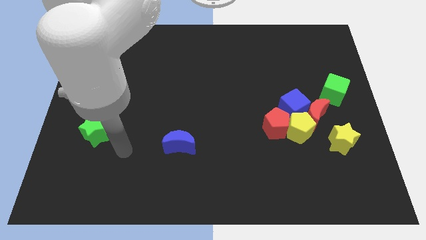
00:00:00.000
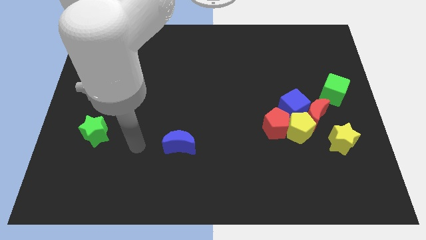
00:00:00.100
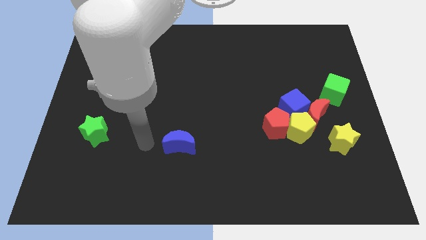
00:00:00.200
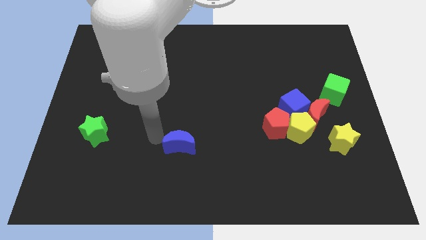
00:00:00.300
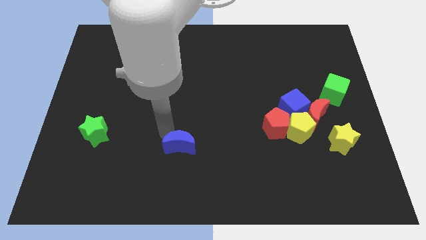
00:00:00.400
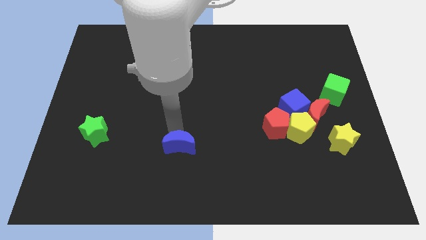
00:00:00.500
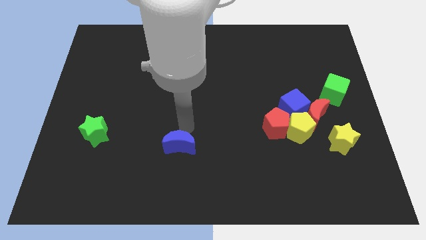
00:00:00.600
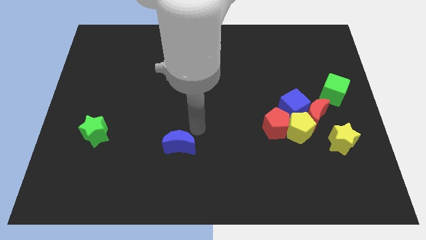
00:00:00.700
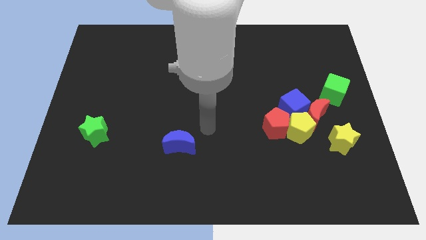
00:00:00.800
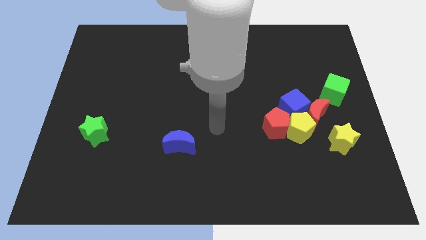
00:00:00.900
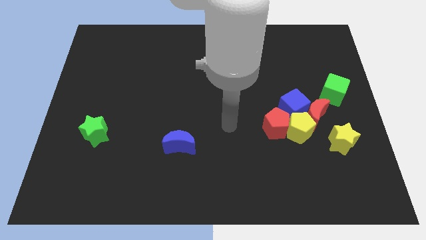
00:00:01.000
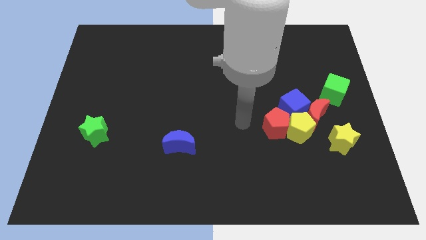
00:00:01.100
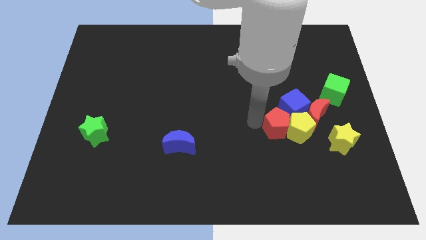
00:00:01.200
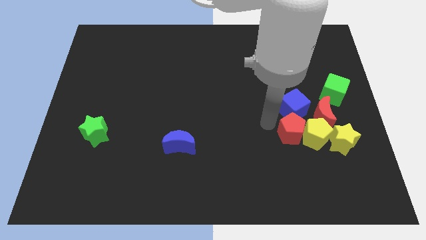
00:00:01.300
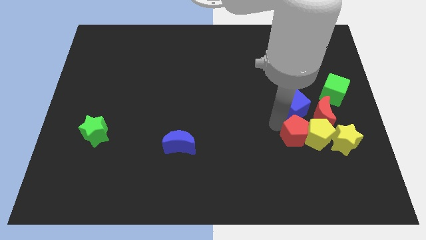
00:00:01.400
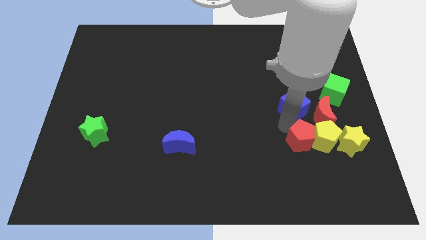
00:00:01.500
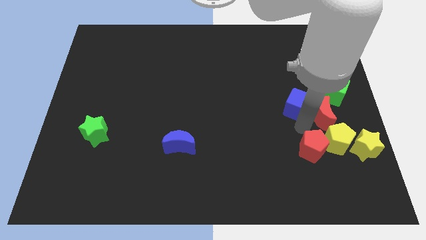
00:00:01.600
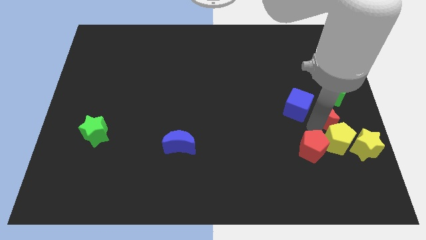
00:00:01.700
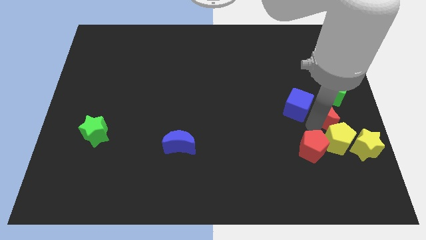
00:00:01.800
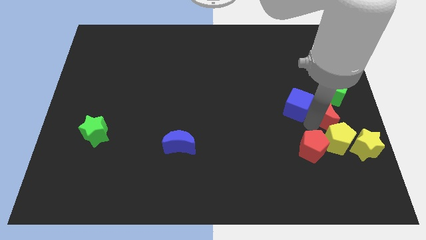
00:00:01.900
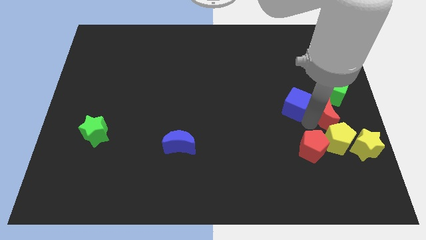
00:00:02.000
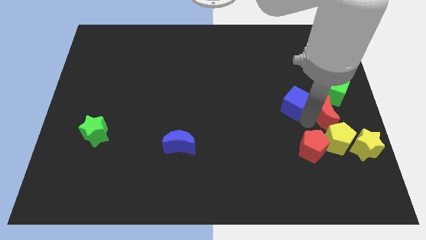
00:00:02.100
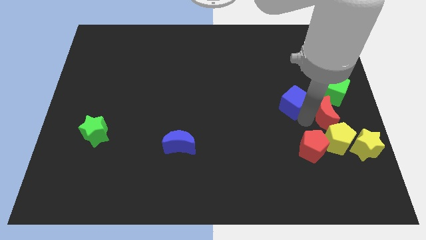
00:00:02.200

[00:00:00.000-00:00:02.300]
separate the blue cube from the group

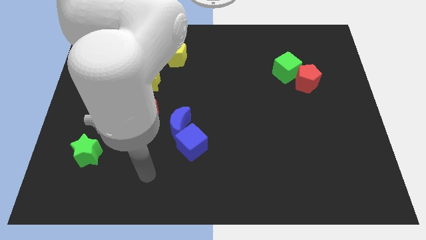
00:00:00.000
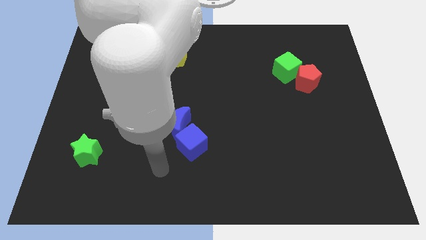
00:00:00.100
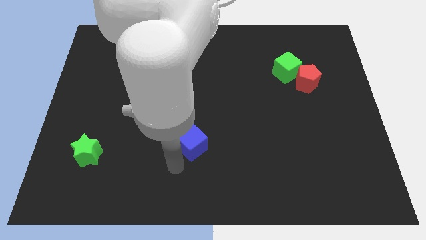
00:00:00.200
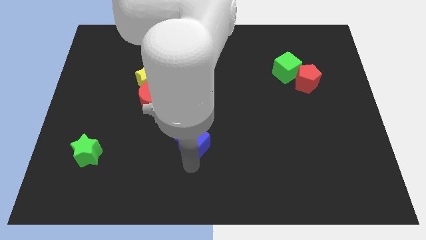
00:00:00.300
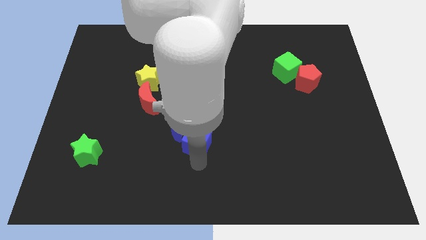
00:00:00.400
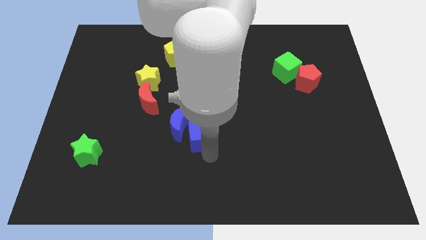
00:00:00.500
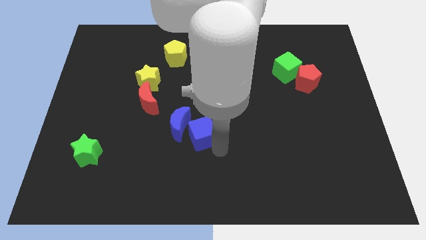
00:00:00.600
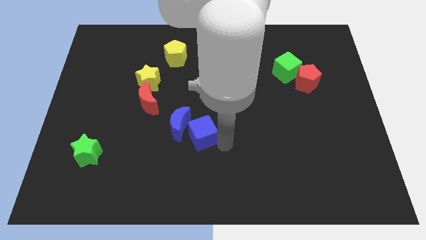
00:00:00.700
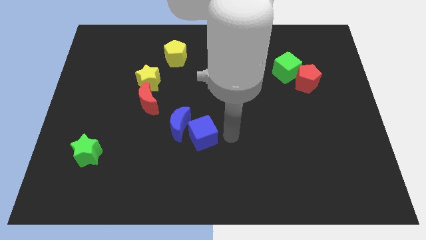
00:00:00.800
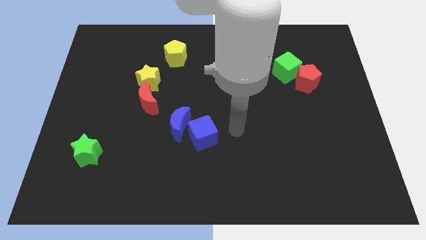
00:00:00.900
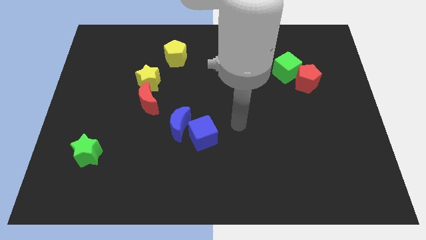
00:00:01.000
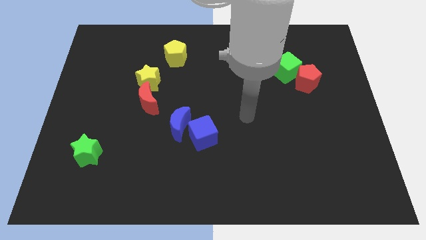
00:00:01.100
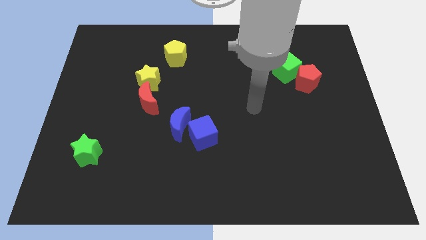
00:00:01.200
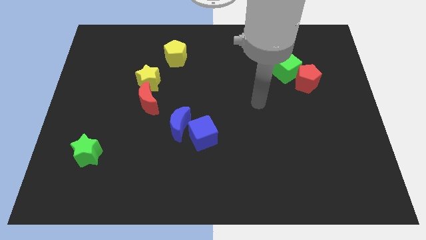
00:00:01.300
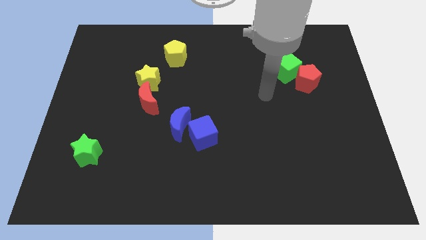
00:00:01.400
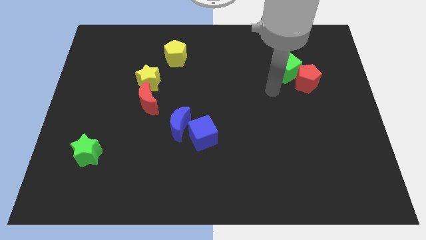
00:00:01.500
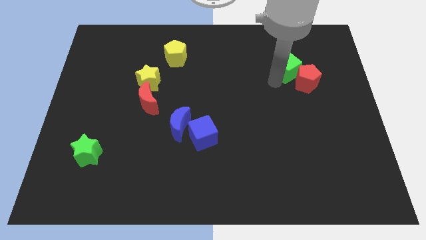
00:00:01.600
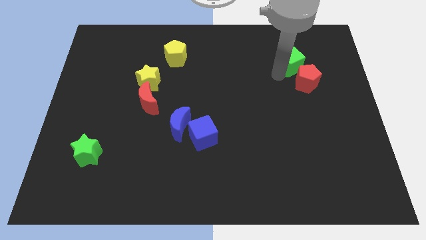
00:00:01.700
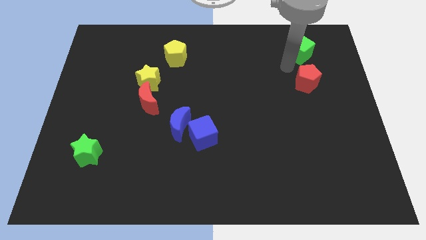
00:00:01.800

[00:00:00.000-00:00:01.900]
separate the red pentagon from the green cube

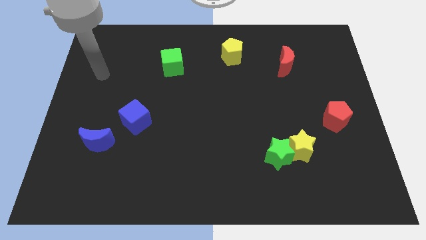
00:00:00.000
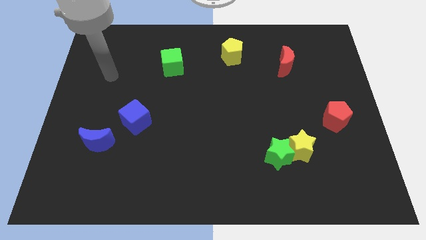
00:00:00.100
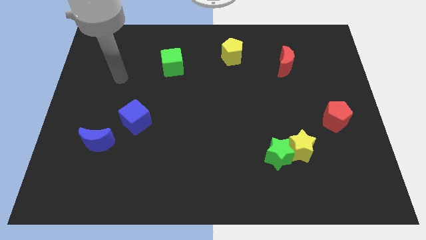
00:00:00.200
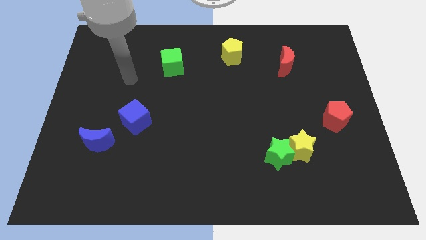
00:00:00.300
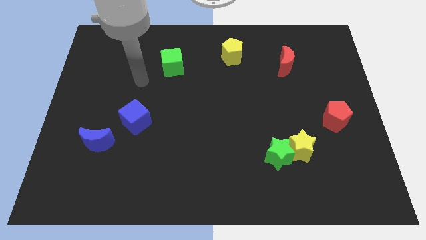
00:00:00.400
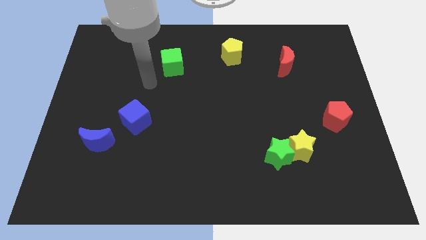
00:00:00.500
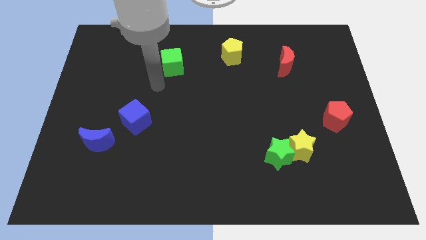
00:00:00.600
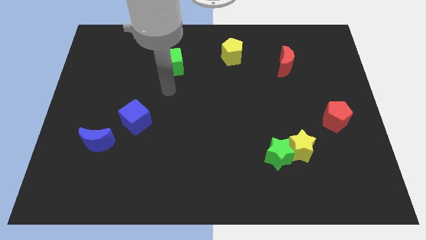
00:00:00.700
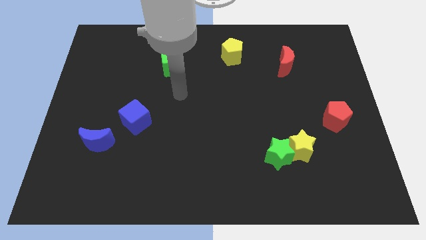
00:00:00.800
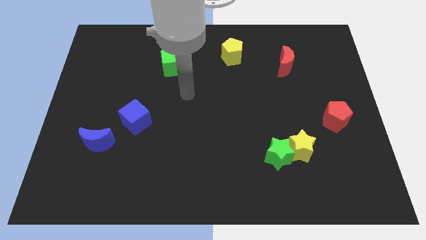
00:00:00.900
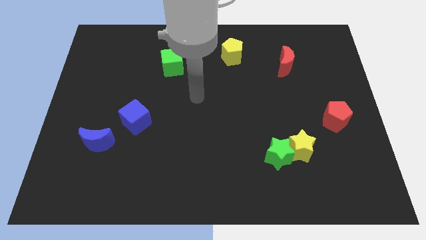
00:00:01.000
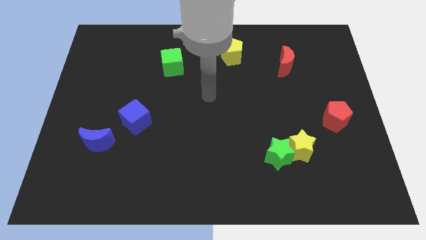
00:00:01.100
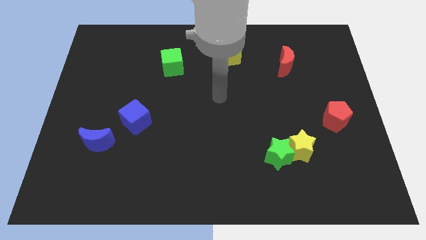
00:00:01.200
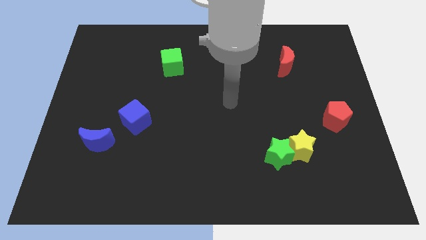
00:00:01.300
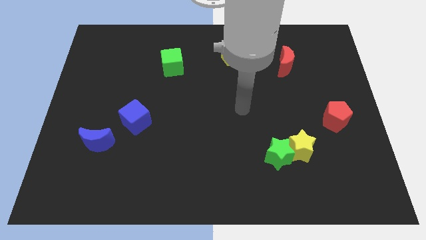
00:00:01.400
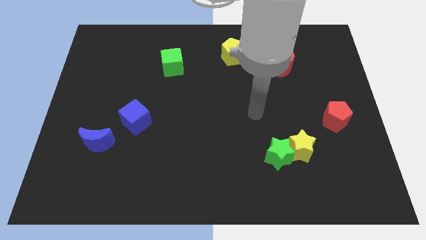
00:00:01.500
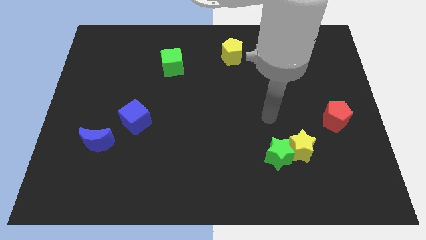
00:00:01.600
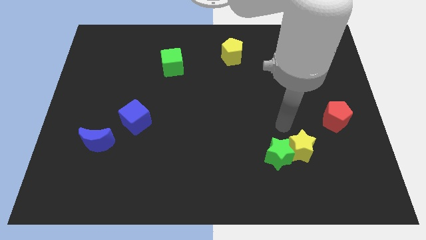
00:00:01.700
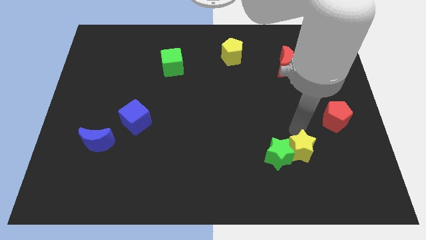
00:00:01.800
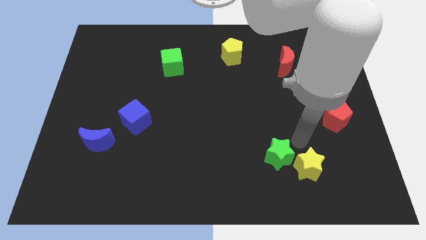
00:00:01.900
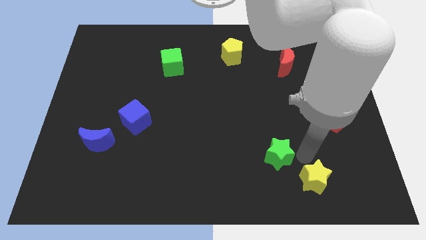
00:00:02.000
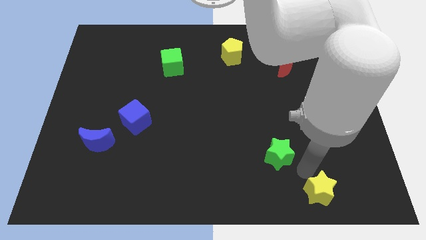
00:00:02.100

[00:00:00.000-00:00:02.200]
move the green star away from the yellow star

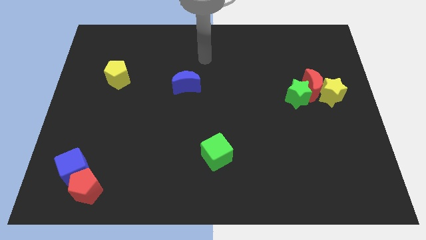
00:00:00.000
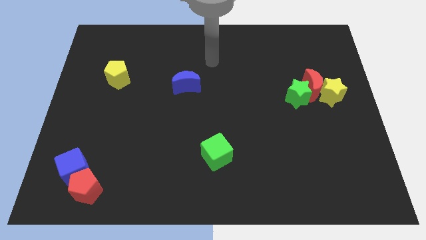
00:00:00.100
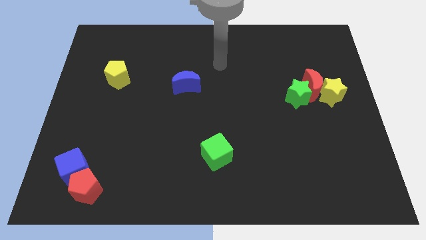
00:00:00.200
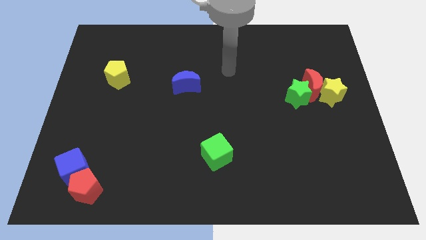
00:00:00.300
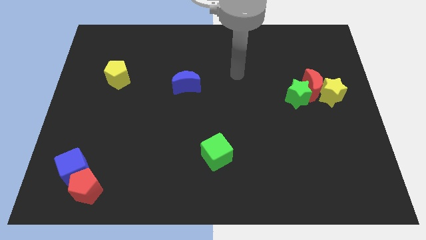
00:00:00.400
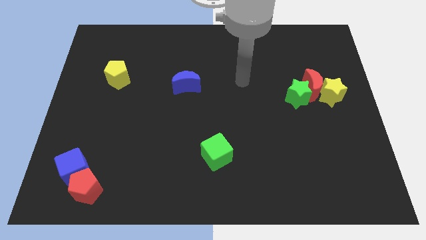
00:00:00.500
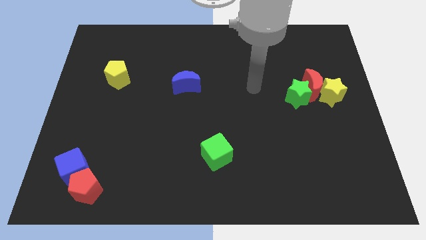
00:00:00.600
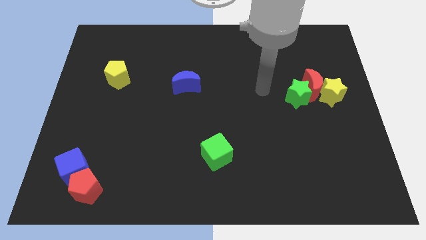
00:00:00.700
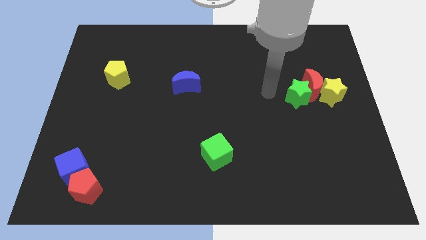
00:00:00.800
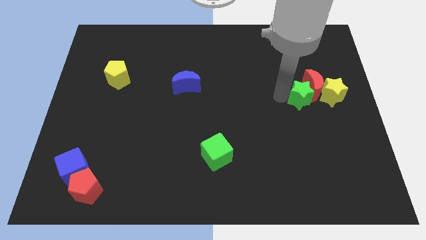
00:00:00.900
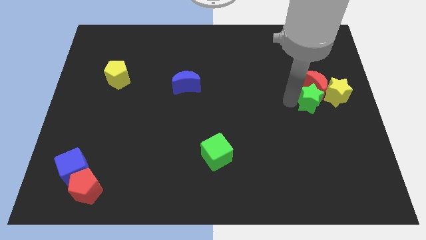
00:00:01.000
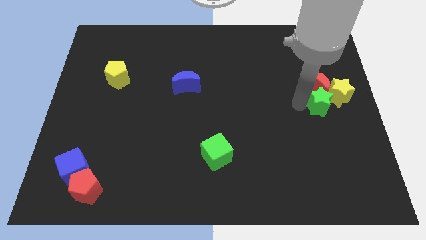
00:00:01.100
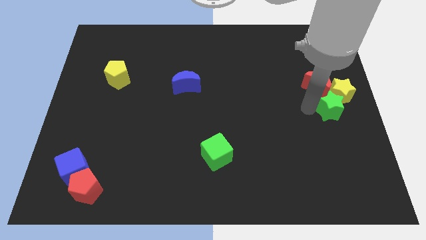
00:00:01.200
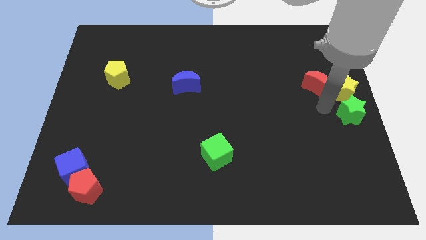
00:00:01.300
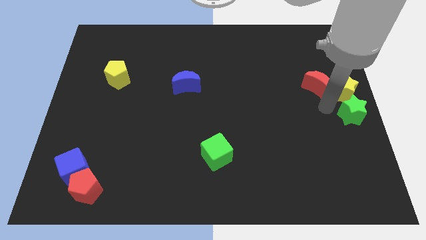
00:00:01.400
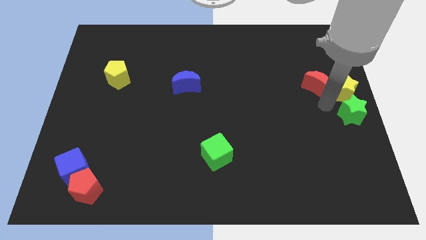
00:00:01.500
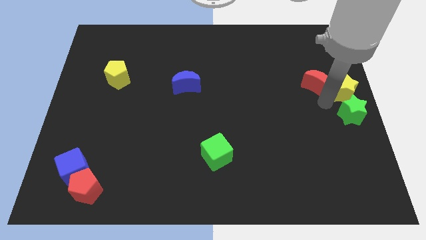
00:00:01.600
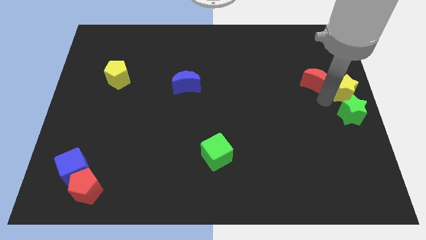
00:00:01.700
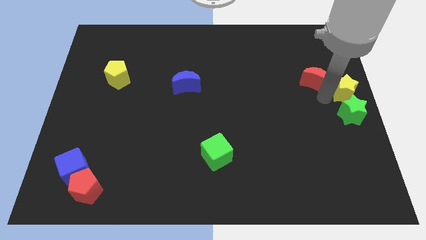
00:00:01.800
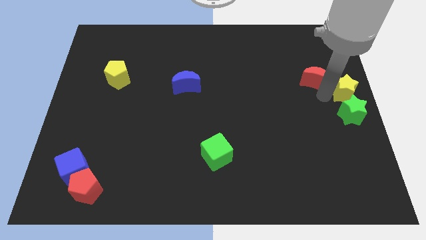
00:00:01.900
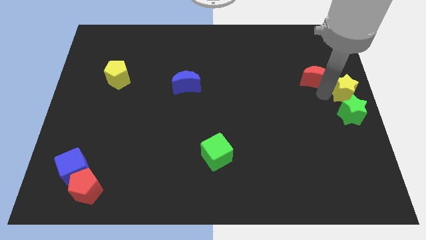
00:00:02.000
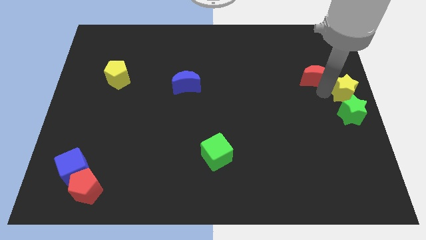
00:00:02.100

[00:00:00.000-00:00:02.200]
separate the red moon from the yellow star and green star

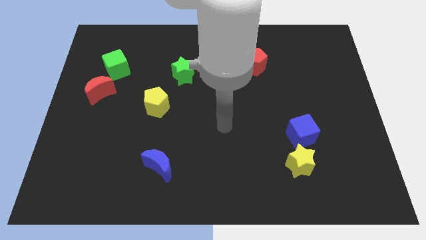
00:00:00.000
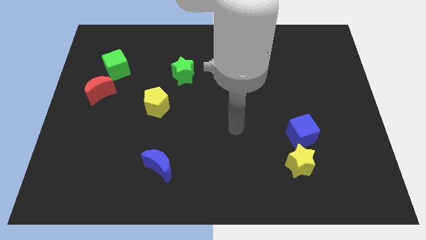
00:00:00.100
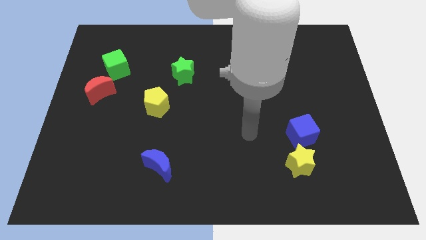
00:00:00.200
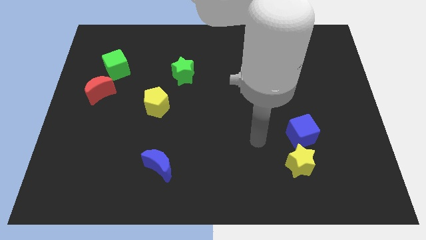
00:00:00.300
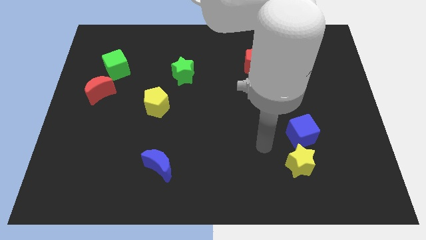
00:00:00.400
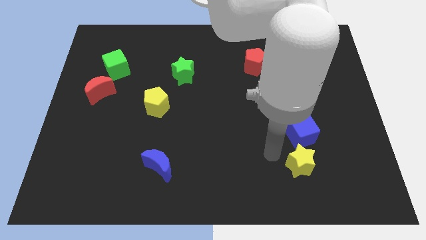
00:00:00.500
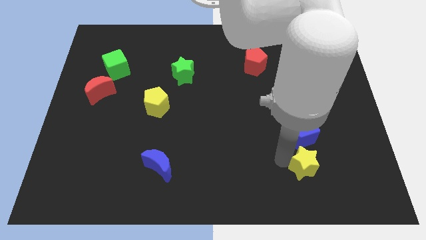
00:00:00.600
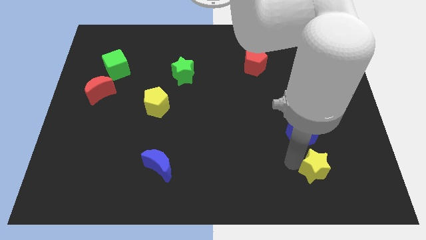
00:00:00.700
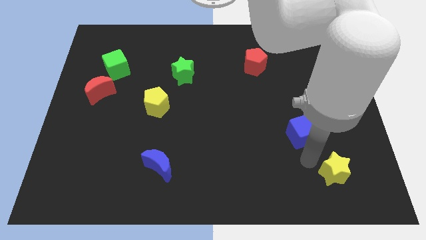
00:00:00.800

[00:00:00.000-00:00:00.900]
separate the blue cube from the yellow star
